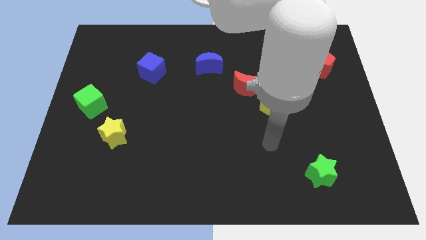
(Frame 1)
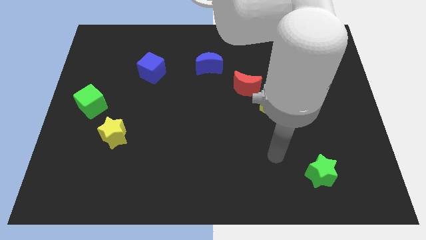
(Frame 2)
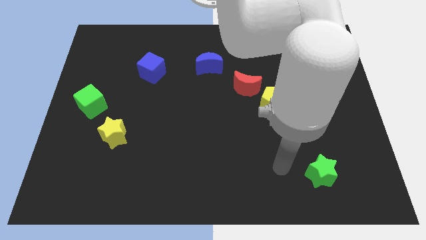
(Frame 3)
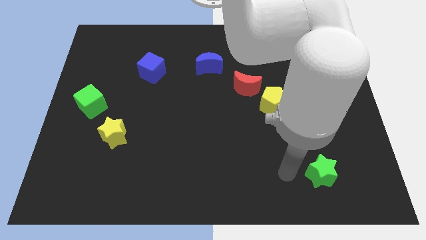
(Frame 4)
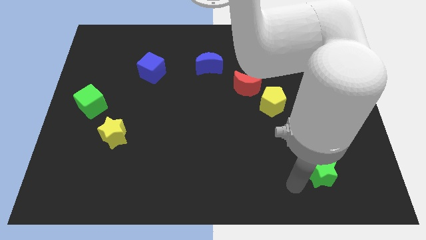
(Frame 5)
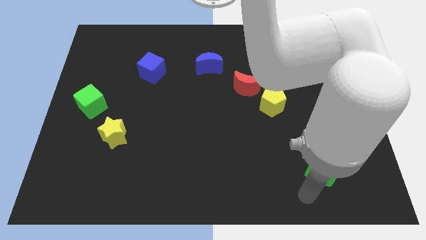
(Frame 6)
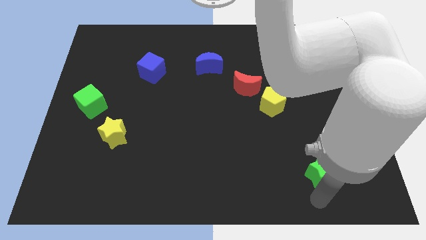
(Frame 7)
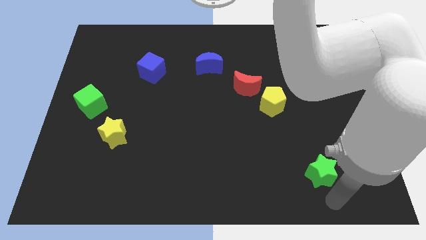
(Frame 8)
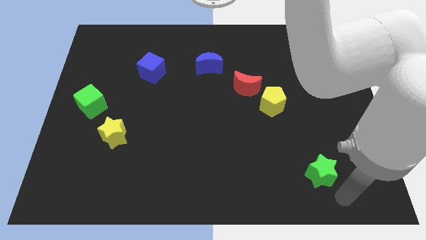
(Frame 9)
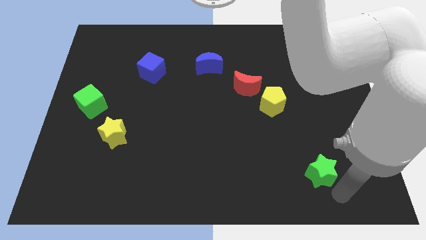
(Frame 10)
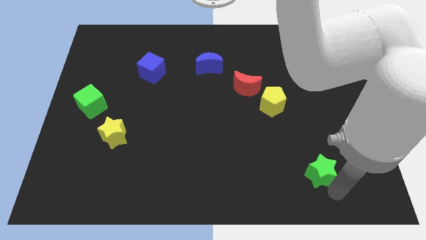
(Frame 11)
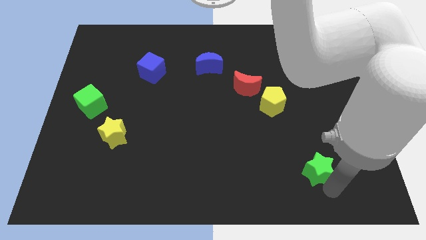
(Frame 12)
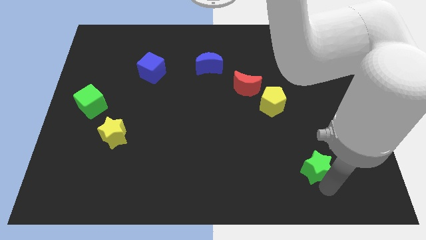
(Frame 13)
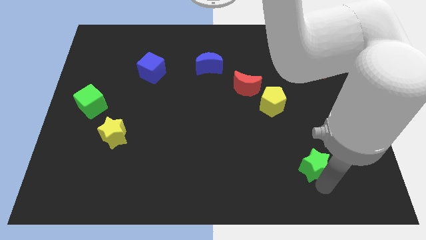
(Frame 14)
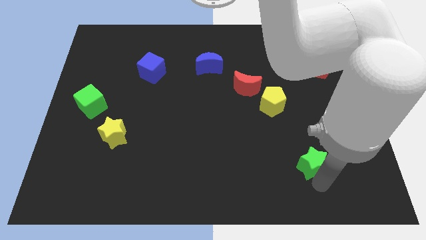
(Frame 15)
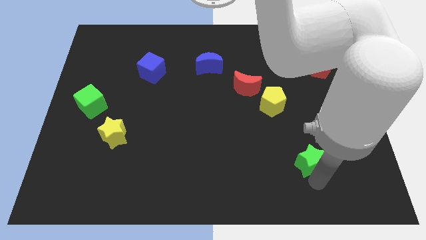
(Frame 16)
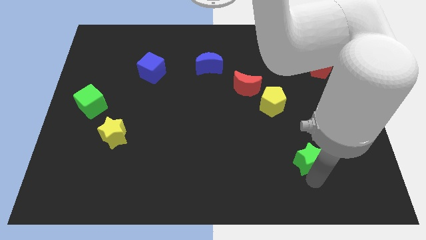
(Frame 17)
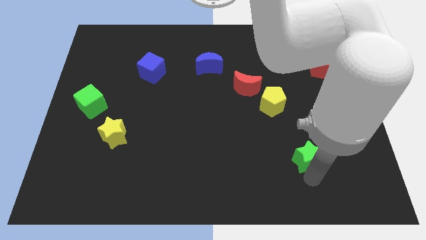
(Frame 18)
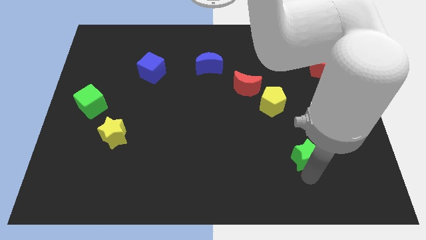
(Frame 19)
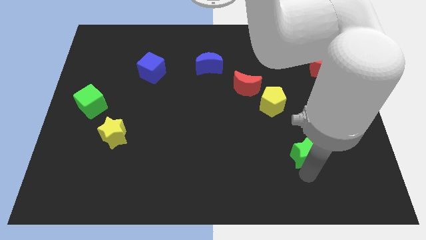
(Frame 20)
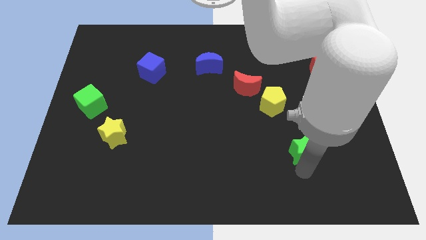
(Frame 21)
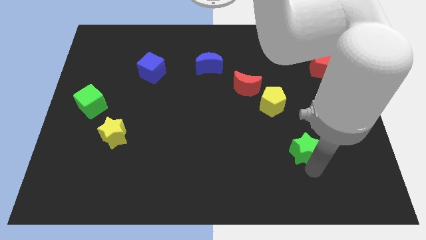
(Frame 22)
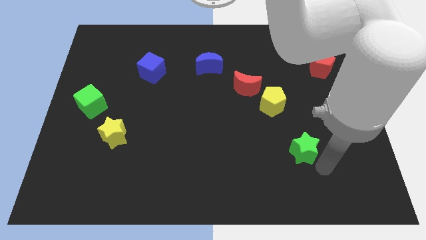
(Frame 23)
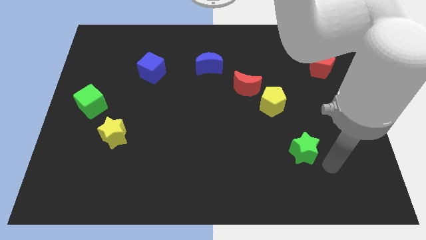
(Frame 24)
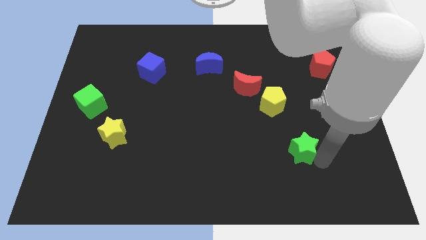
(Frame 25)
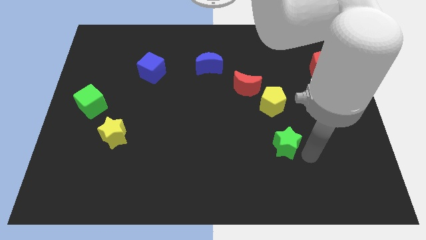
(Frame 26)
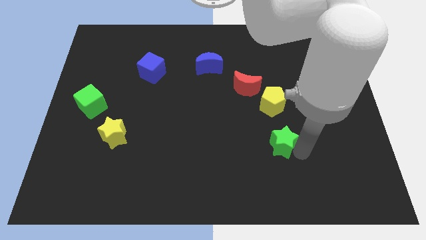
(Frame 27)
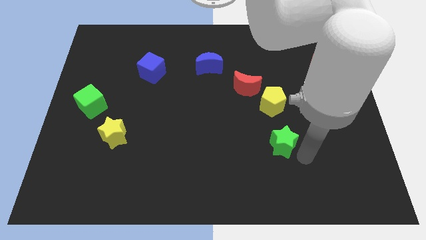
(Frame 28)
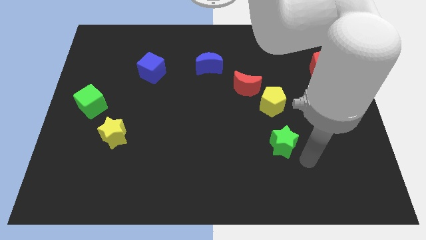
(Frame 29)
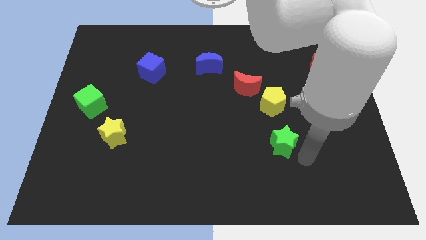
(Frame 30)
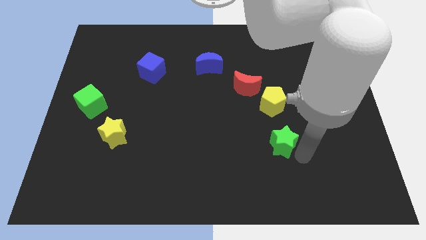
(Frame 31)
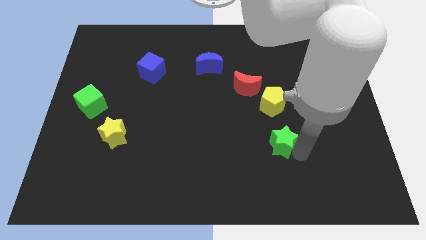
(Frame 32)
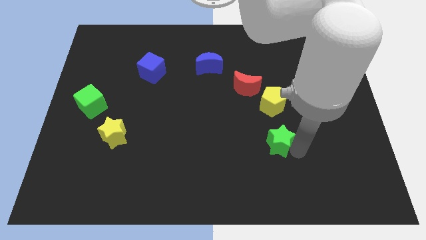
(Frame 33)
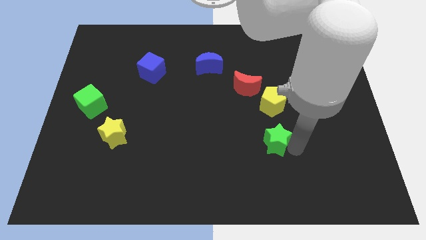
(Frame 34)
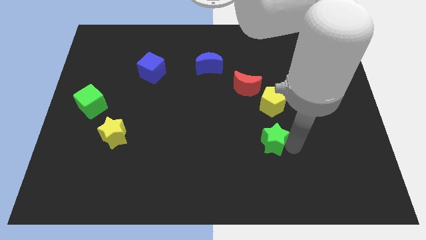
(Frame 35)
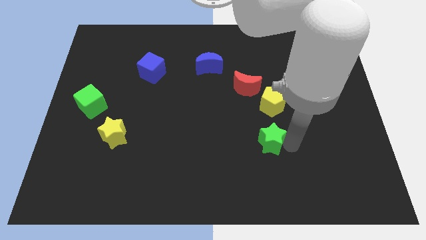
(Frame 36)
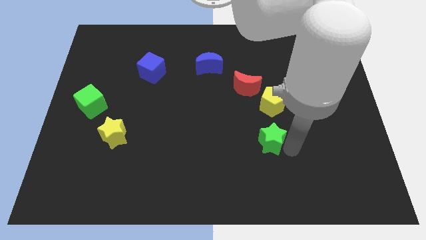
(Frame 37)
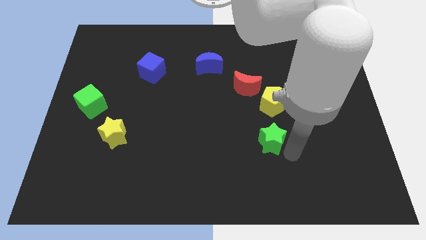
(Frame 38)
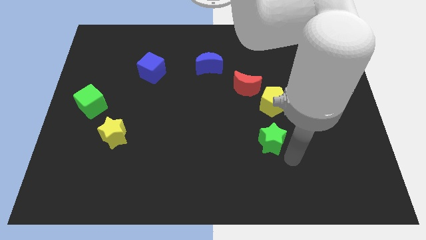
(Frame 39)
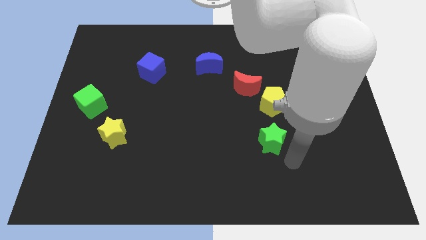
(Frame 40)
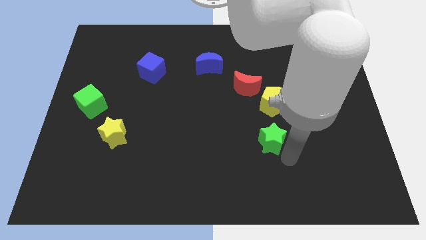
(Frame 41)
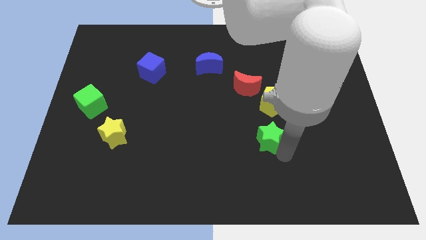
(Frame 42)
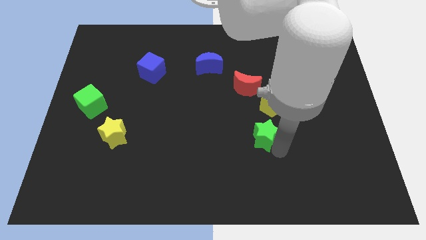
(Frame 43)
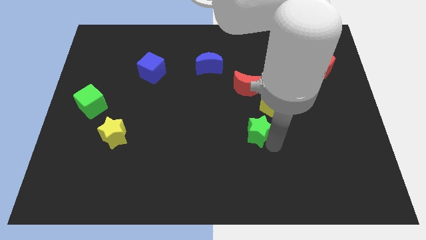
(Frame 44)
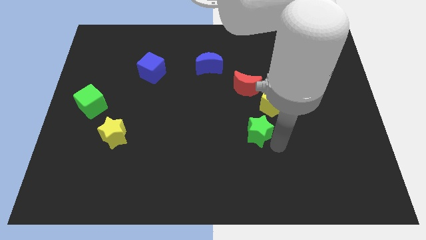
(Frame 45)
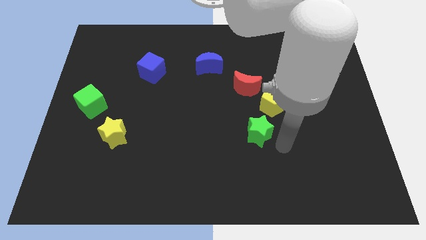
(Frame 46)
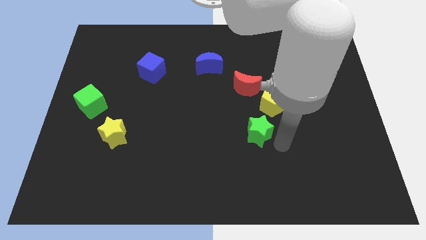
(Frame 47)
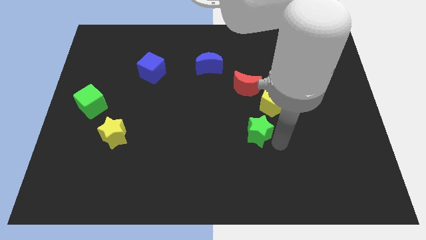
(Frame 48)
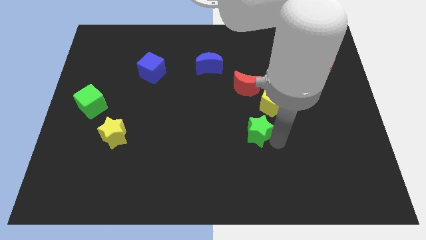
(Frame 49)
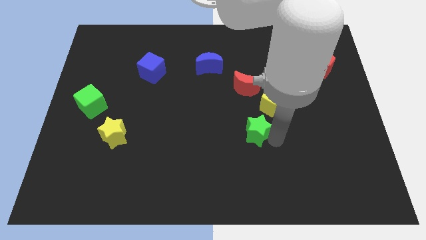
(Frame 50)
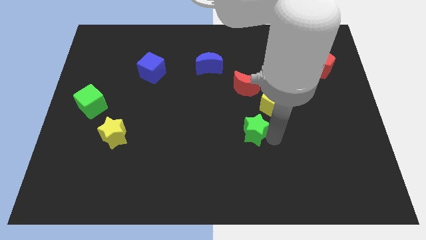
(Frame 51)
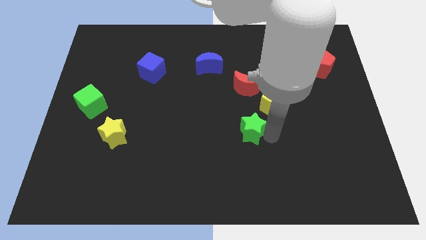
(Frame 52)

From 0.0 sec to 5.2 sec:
put the green star to the middle

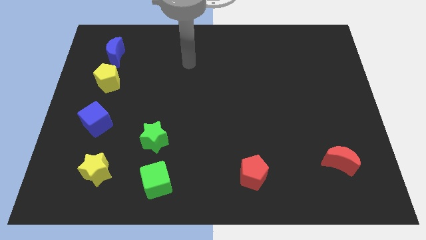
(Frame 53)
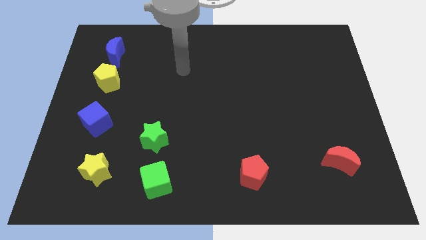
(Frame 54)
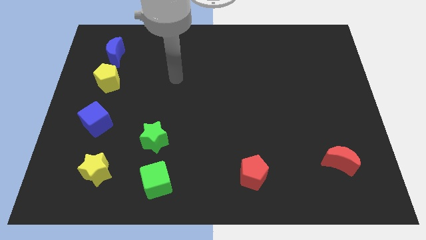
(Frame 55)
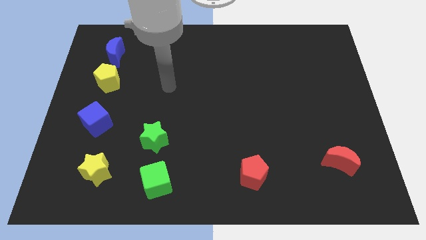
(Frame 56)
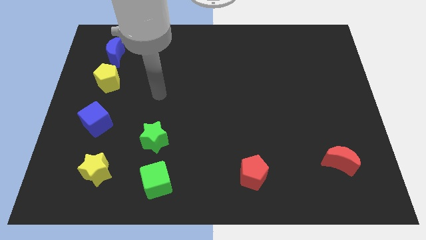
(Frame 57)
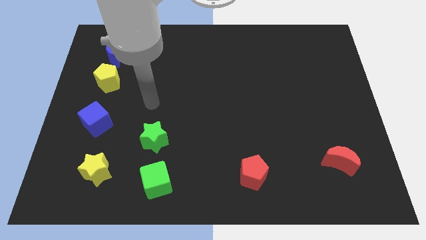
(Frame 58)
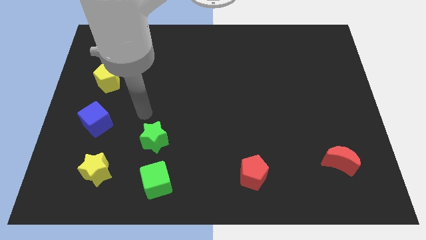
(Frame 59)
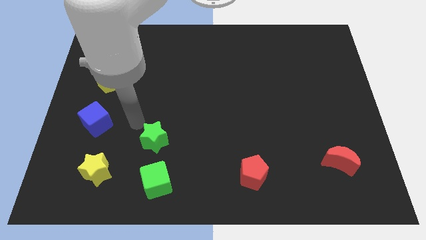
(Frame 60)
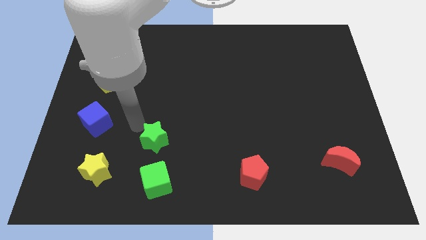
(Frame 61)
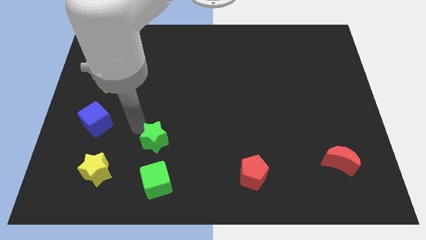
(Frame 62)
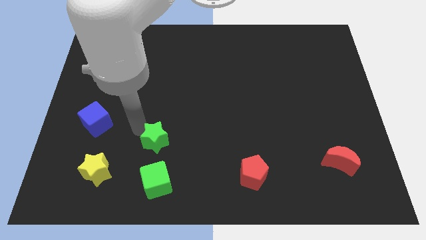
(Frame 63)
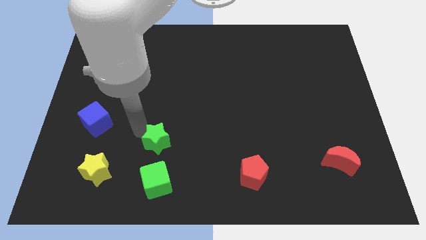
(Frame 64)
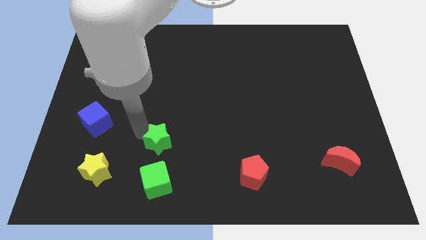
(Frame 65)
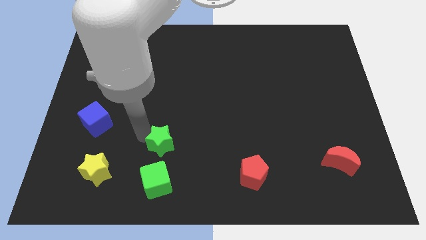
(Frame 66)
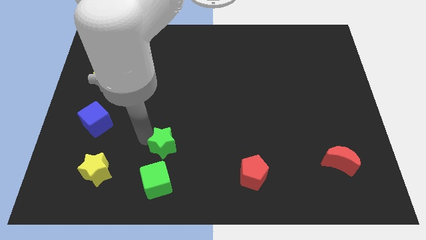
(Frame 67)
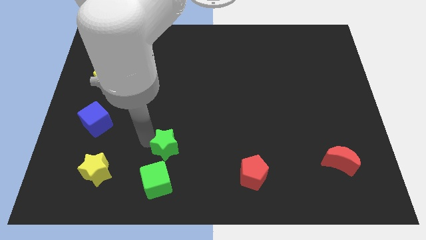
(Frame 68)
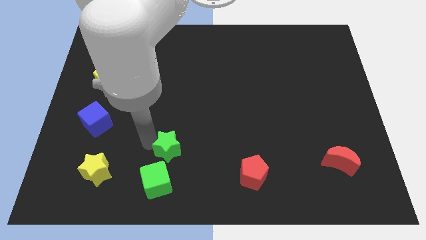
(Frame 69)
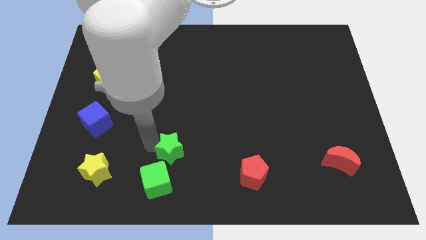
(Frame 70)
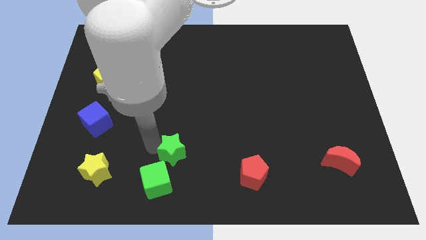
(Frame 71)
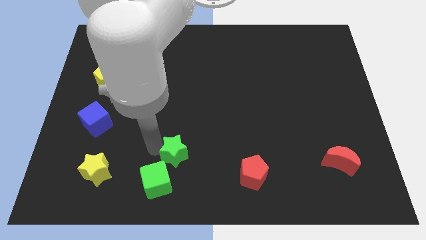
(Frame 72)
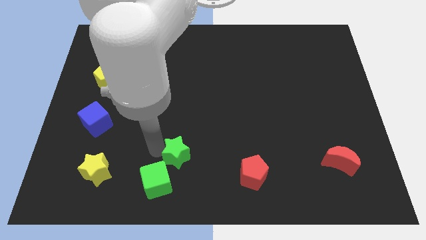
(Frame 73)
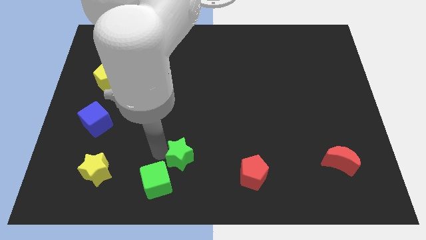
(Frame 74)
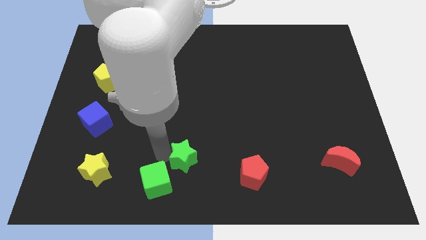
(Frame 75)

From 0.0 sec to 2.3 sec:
push the green star to the bottom
